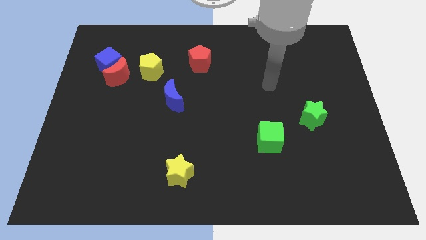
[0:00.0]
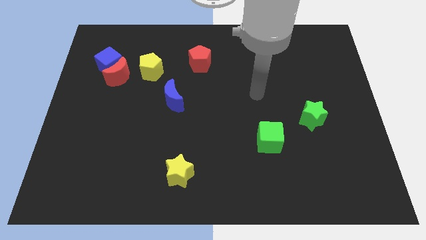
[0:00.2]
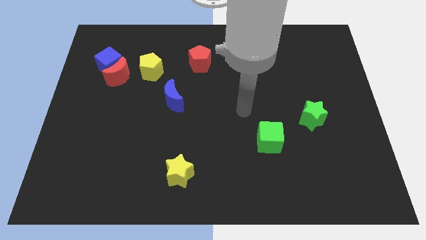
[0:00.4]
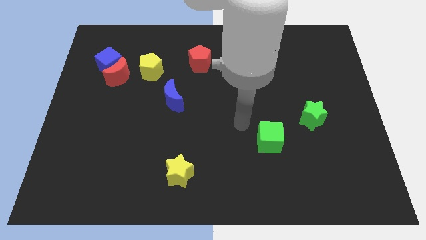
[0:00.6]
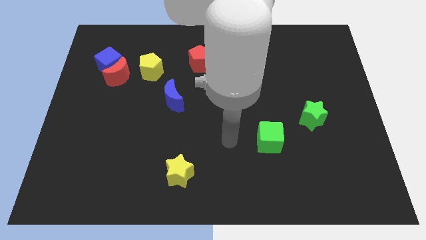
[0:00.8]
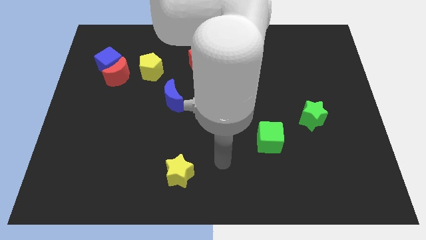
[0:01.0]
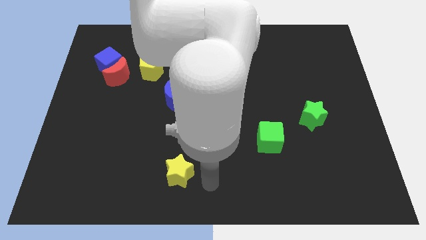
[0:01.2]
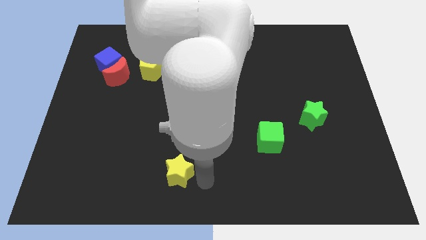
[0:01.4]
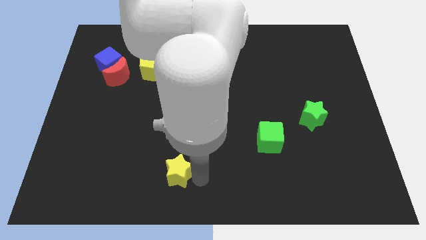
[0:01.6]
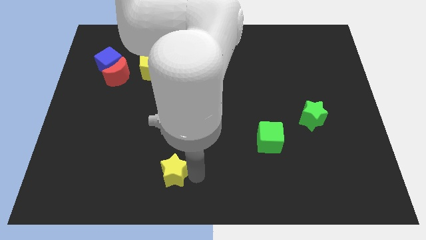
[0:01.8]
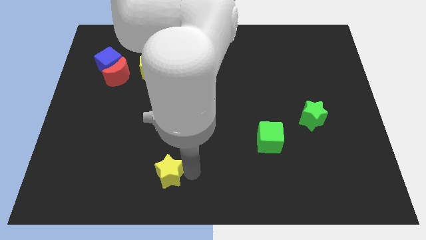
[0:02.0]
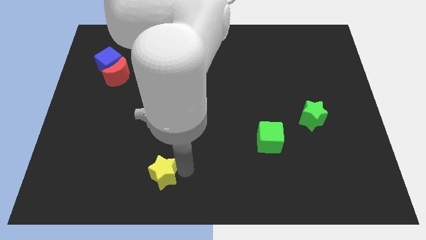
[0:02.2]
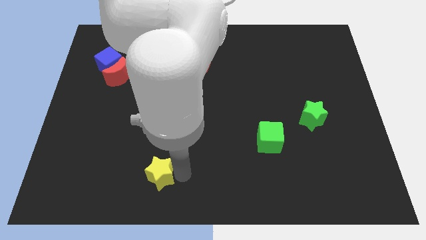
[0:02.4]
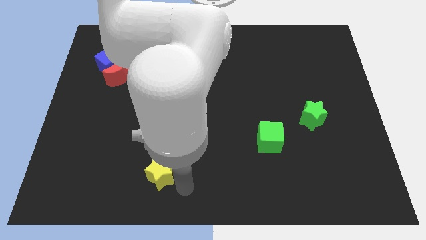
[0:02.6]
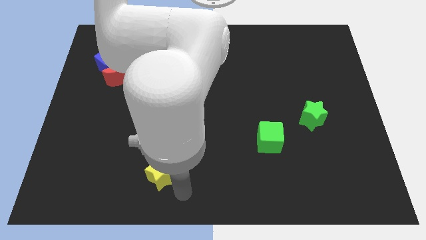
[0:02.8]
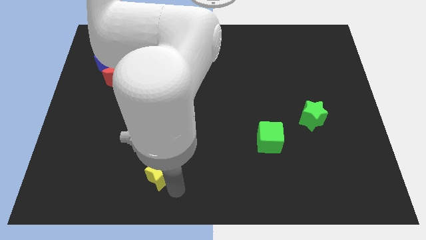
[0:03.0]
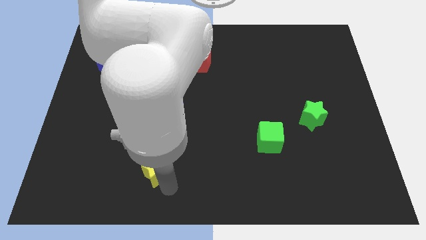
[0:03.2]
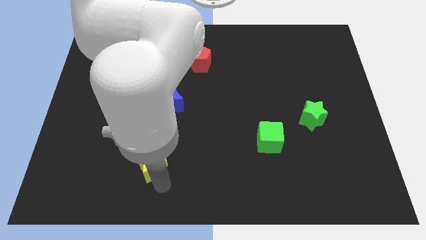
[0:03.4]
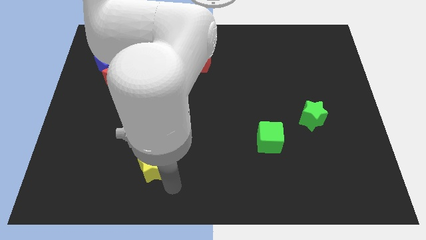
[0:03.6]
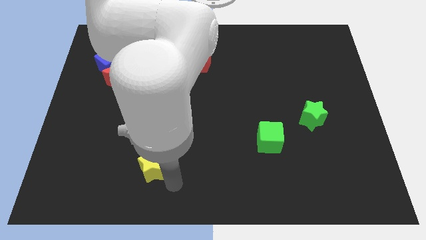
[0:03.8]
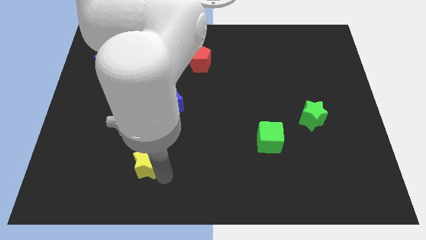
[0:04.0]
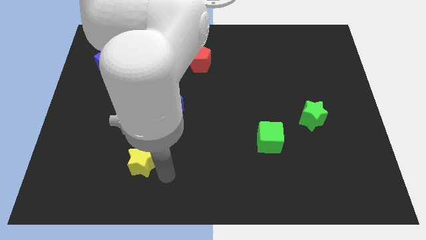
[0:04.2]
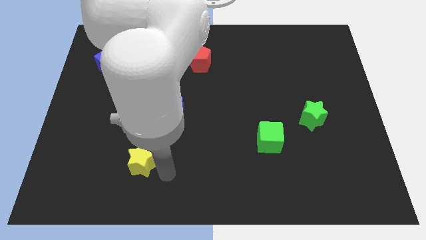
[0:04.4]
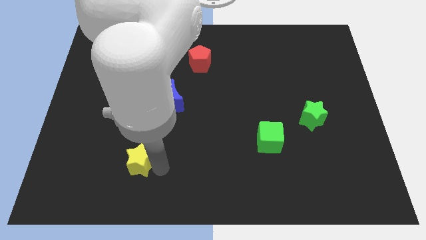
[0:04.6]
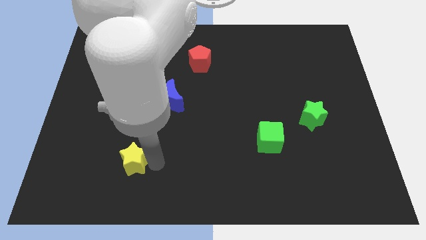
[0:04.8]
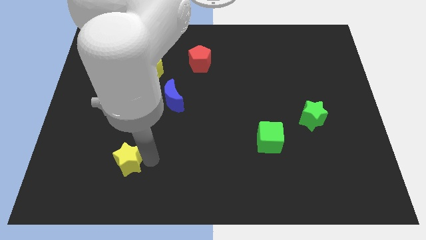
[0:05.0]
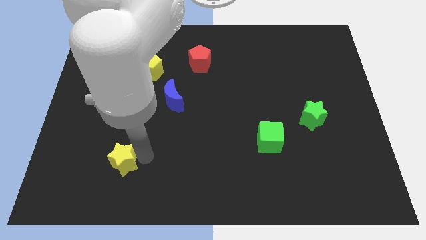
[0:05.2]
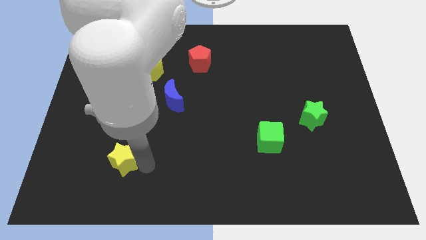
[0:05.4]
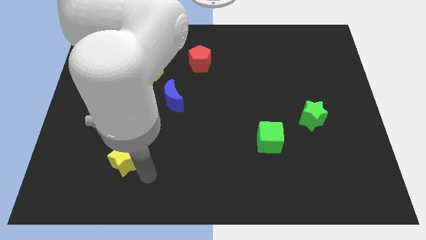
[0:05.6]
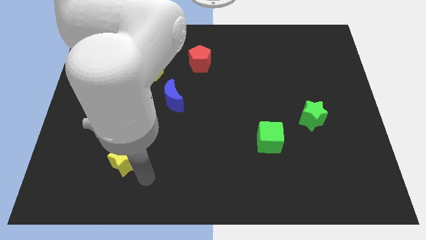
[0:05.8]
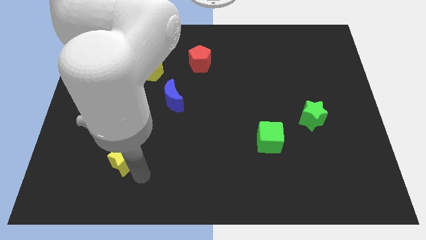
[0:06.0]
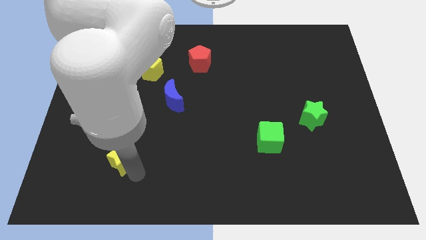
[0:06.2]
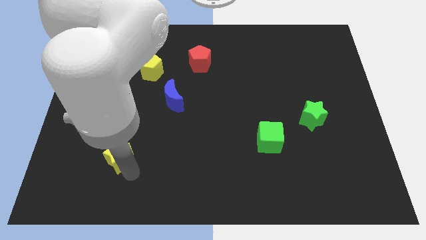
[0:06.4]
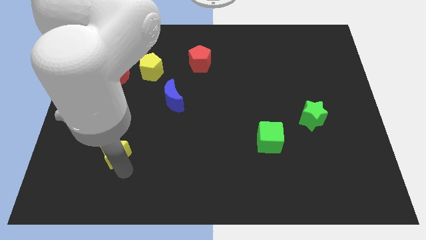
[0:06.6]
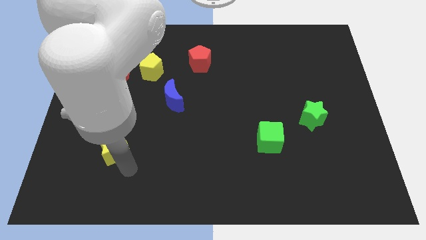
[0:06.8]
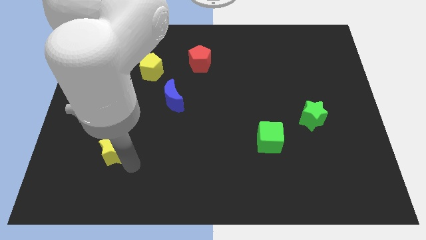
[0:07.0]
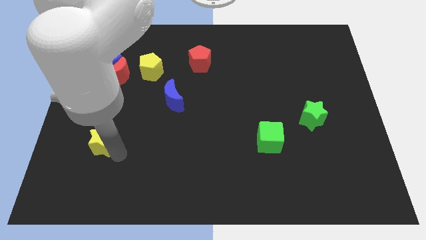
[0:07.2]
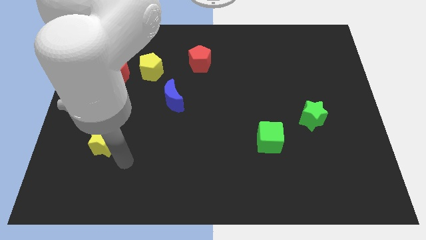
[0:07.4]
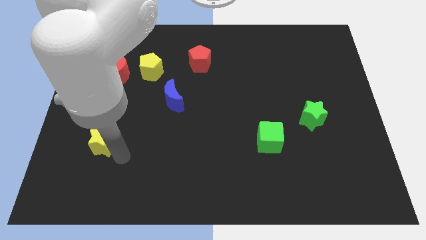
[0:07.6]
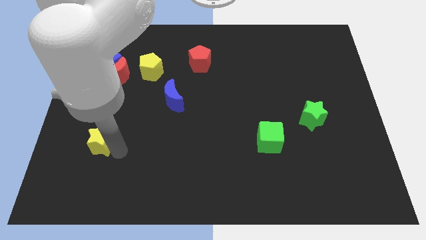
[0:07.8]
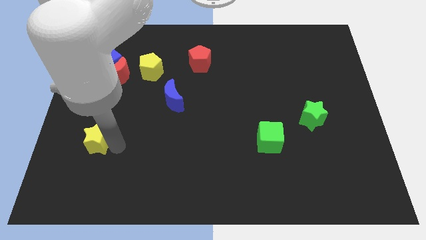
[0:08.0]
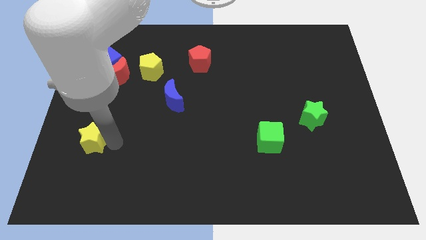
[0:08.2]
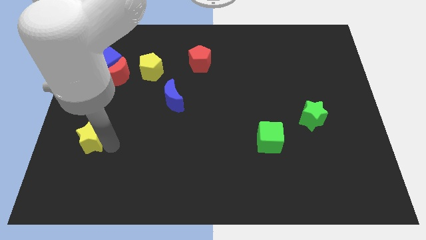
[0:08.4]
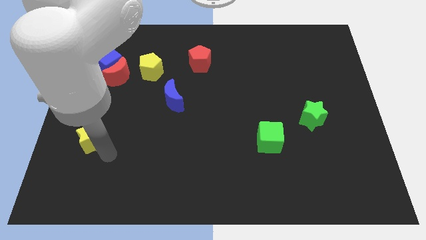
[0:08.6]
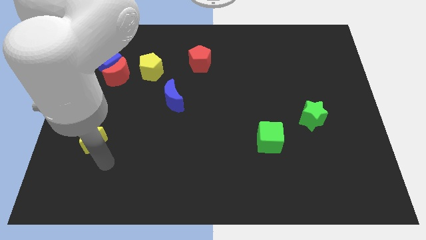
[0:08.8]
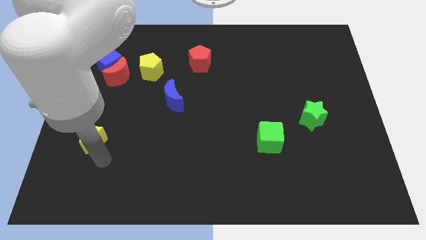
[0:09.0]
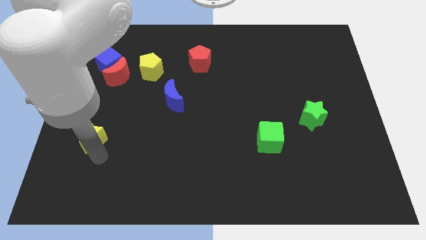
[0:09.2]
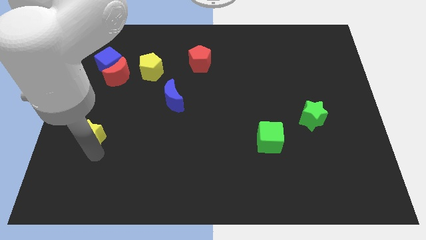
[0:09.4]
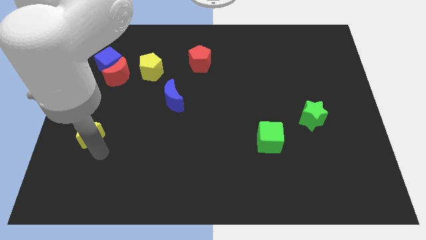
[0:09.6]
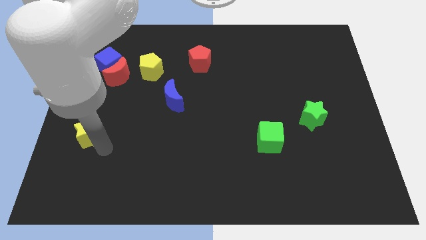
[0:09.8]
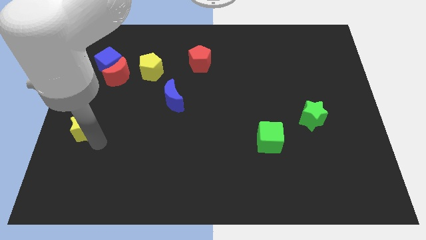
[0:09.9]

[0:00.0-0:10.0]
put the yellow star to the left side

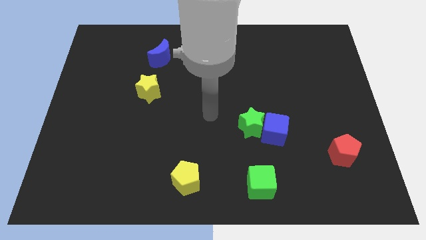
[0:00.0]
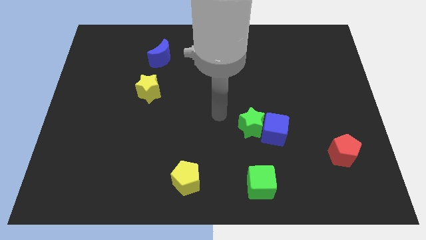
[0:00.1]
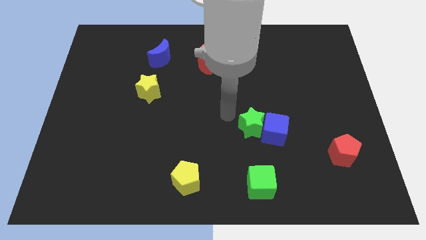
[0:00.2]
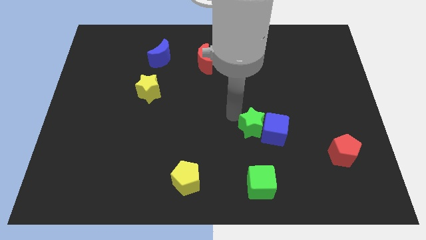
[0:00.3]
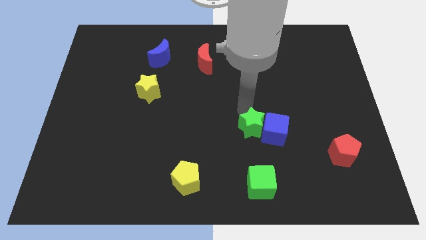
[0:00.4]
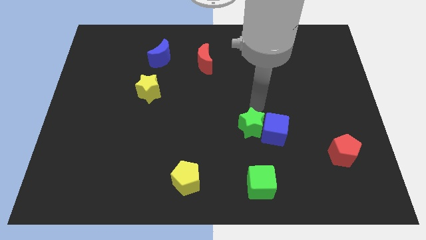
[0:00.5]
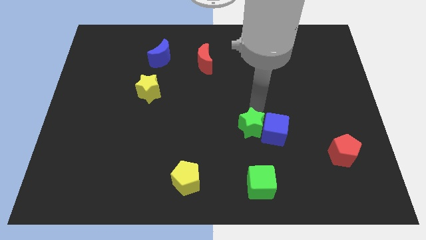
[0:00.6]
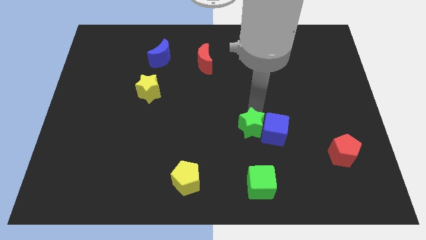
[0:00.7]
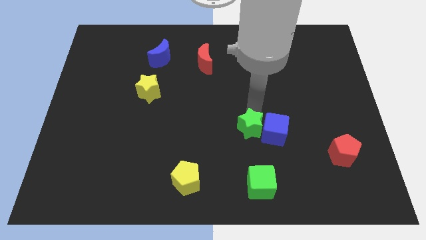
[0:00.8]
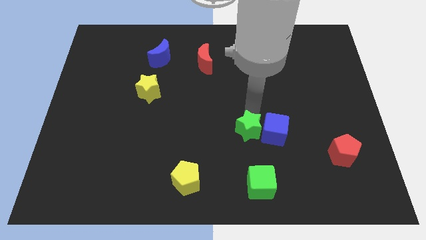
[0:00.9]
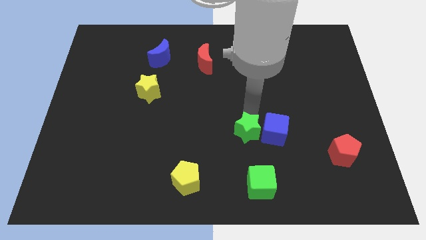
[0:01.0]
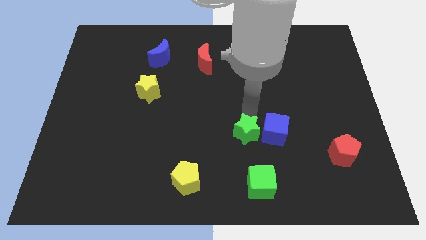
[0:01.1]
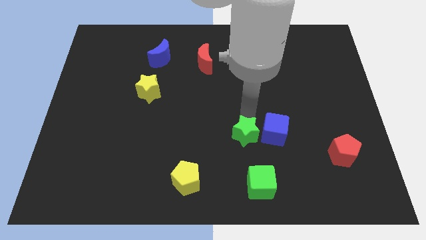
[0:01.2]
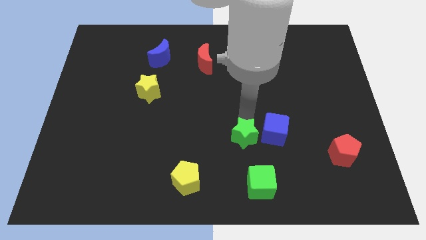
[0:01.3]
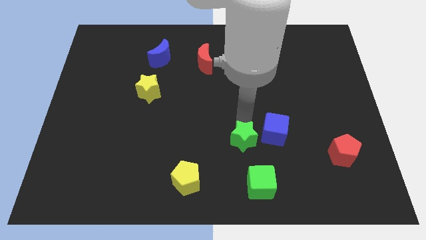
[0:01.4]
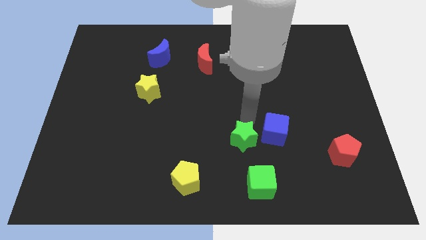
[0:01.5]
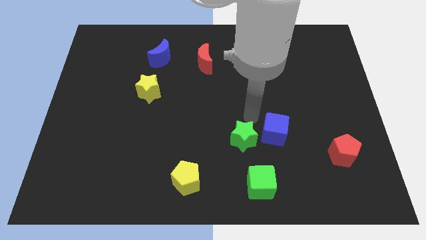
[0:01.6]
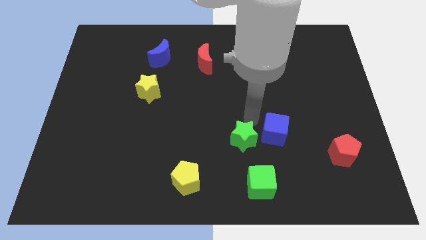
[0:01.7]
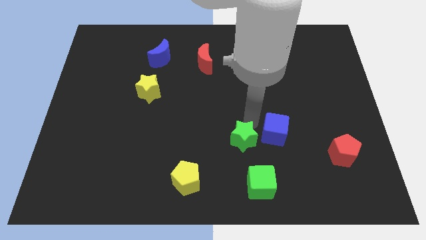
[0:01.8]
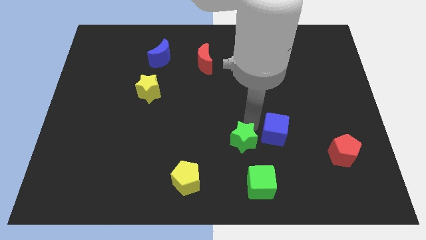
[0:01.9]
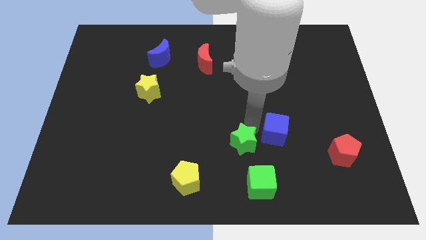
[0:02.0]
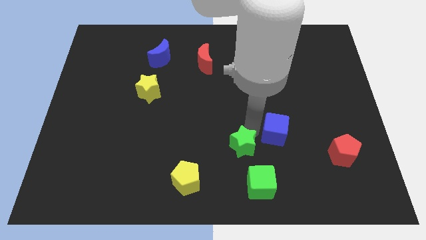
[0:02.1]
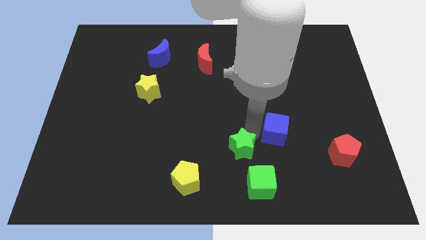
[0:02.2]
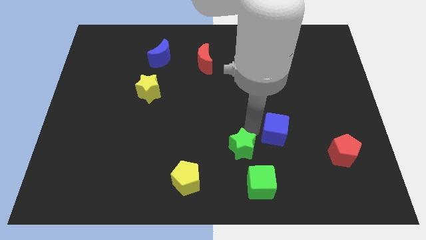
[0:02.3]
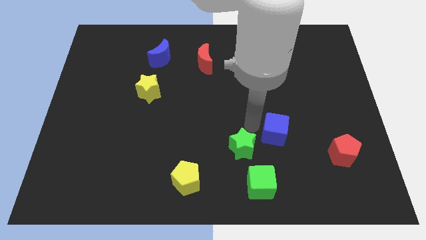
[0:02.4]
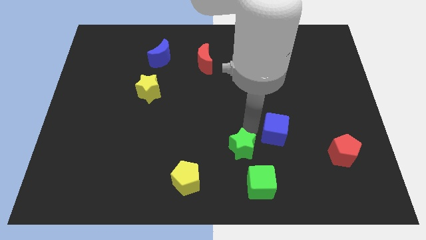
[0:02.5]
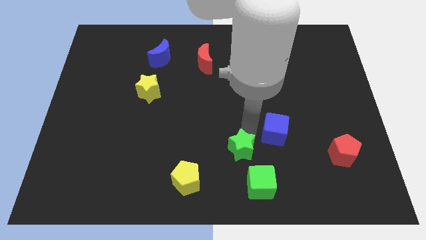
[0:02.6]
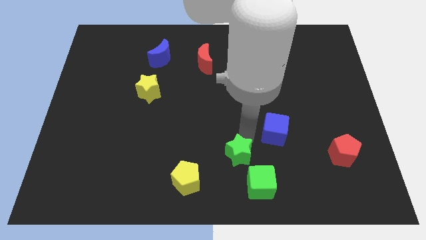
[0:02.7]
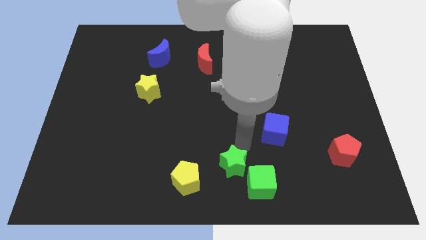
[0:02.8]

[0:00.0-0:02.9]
slide the green star to the bottom
